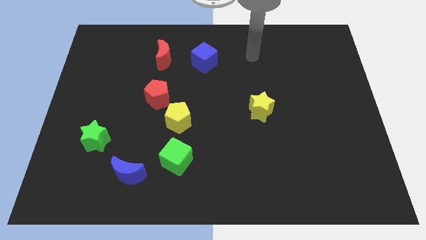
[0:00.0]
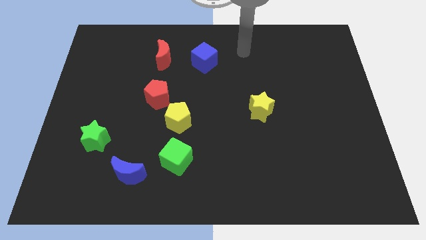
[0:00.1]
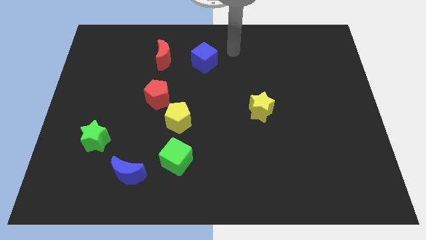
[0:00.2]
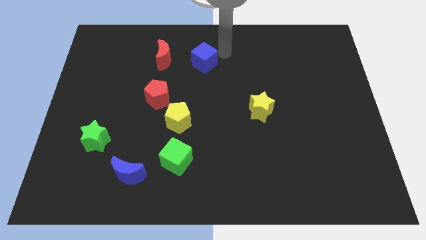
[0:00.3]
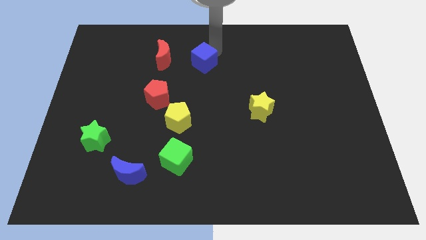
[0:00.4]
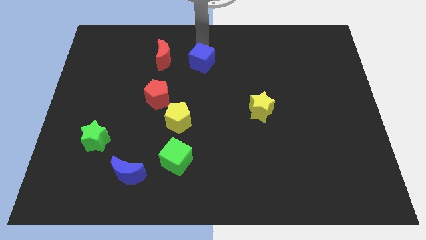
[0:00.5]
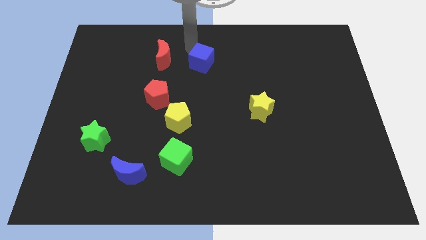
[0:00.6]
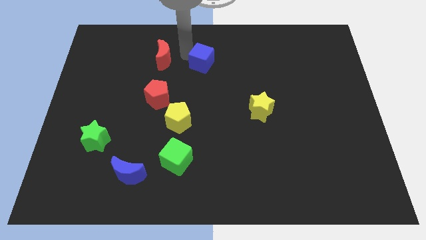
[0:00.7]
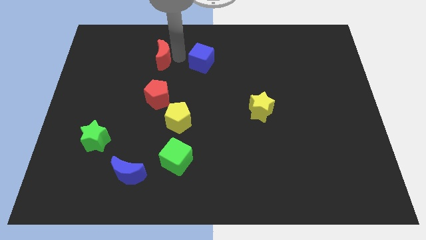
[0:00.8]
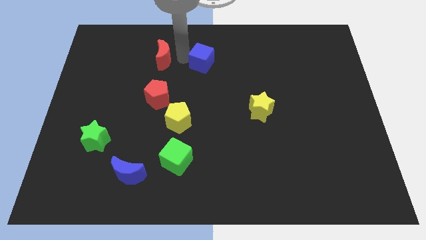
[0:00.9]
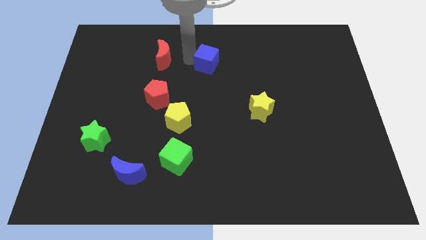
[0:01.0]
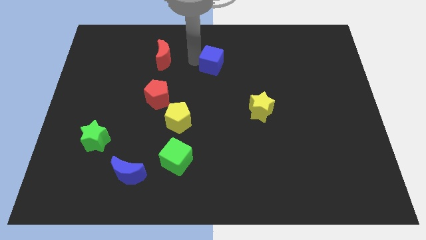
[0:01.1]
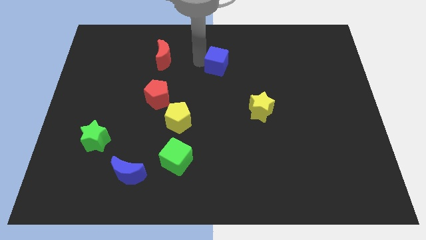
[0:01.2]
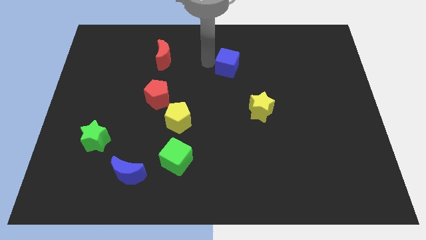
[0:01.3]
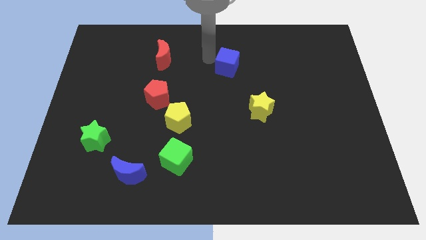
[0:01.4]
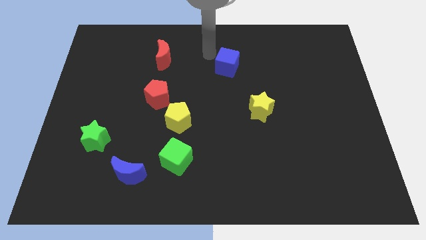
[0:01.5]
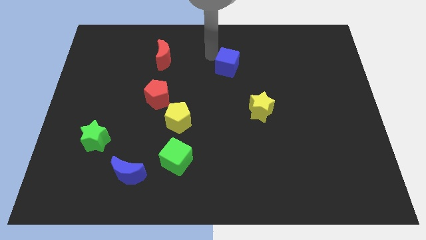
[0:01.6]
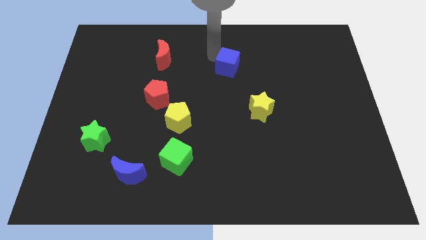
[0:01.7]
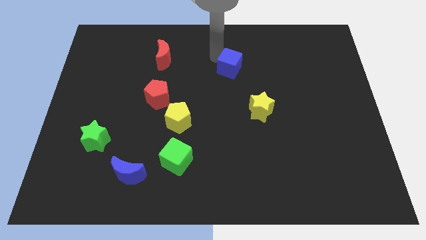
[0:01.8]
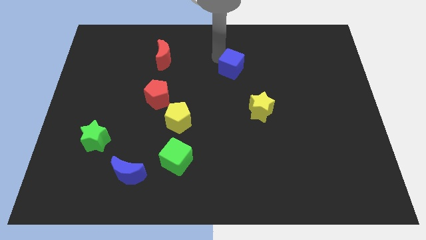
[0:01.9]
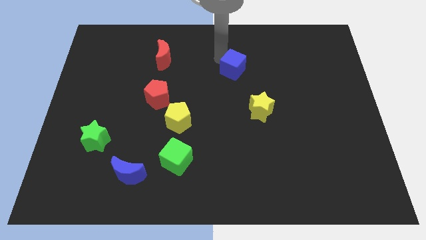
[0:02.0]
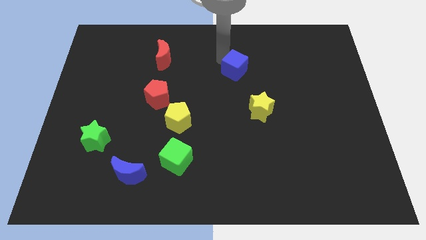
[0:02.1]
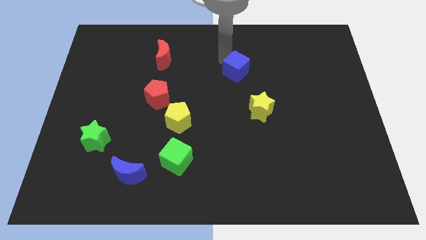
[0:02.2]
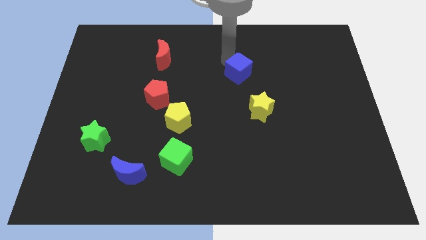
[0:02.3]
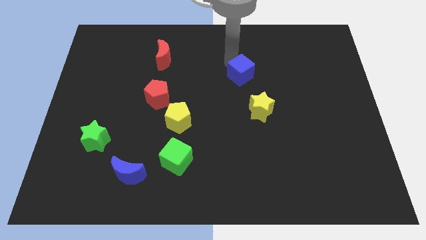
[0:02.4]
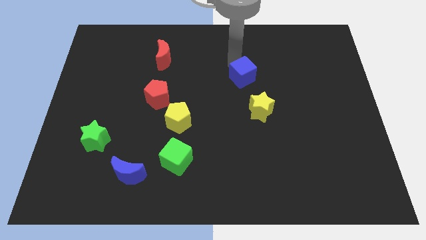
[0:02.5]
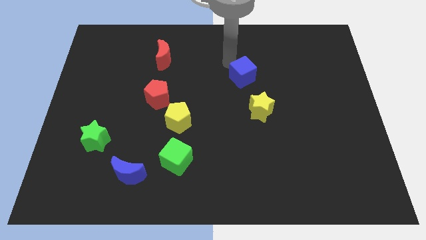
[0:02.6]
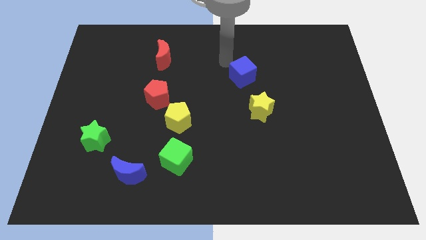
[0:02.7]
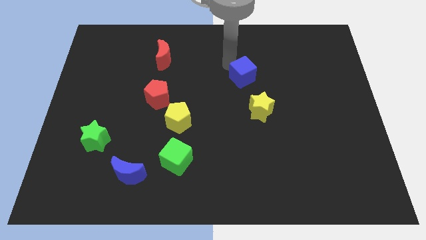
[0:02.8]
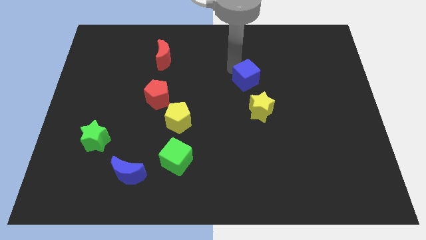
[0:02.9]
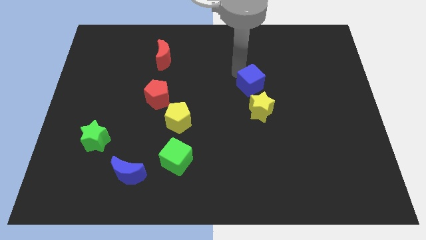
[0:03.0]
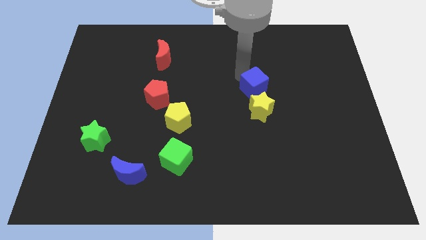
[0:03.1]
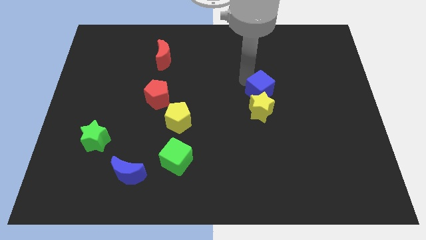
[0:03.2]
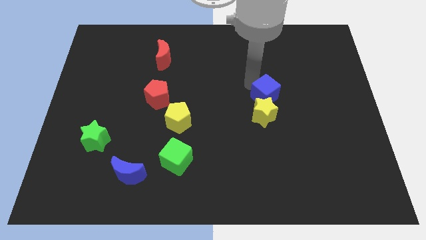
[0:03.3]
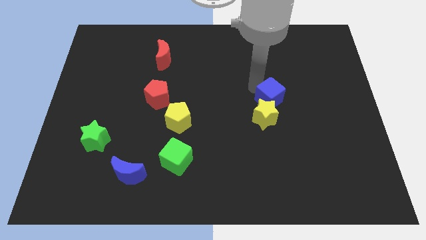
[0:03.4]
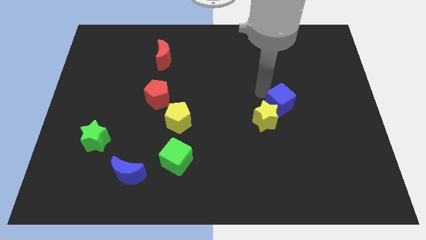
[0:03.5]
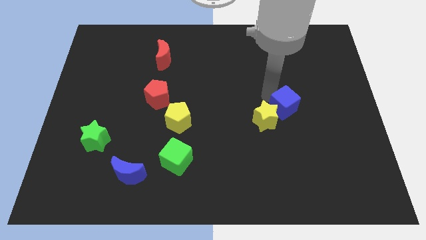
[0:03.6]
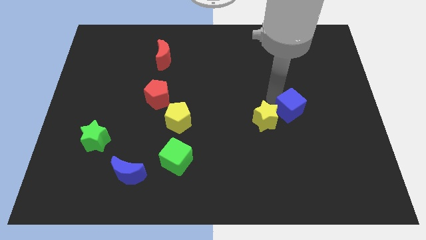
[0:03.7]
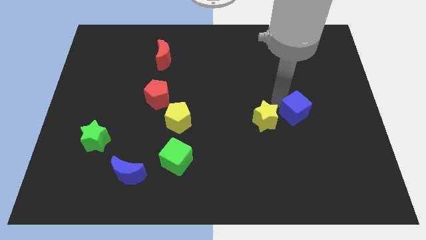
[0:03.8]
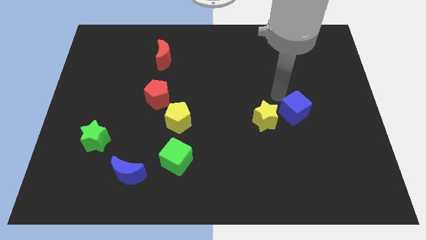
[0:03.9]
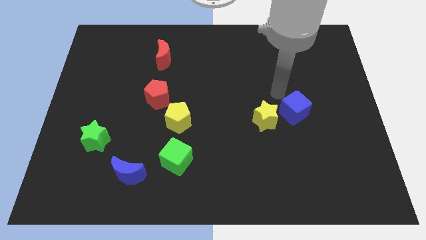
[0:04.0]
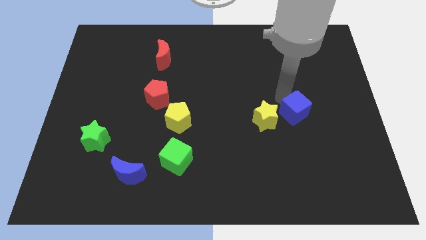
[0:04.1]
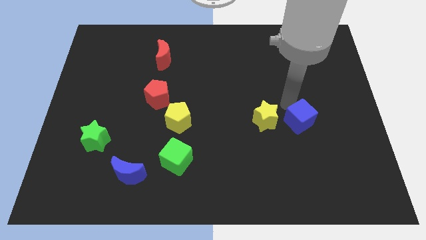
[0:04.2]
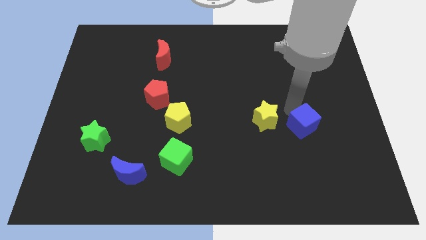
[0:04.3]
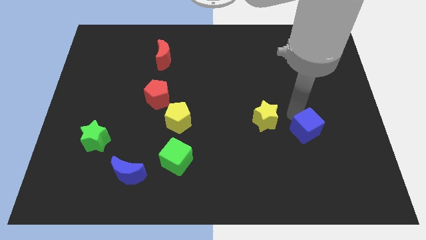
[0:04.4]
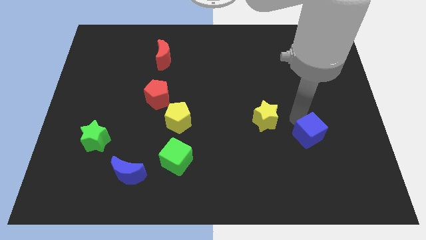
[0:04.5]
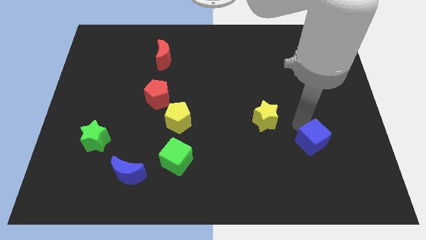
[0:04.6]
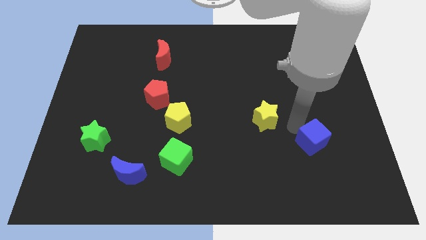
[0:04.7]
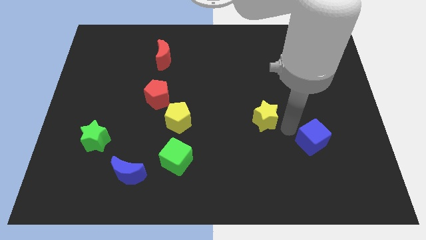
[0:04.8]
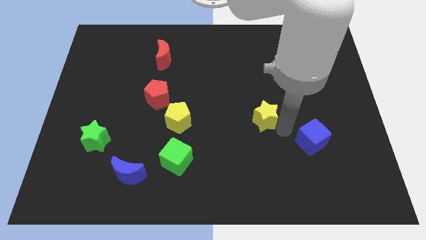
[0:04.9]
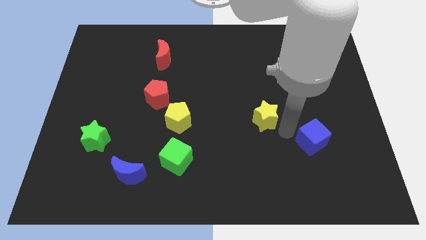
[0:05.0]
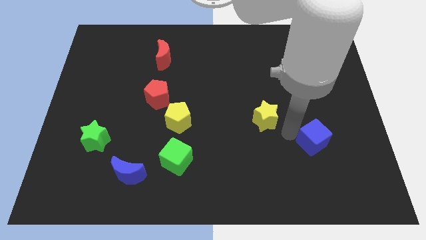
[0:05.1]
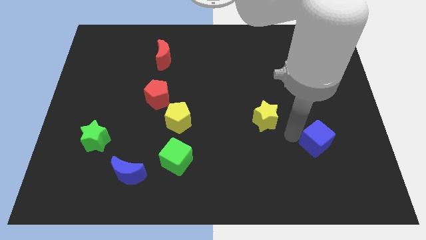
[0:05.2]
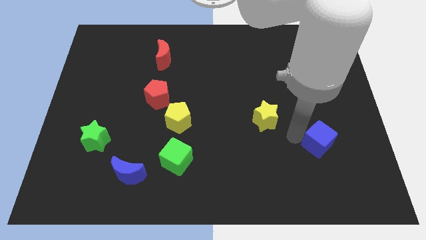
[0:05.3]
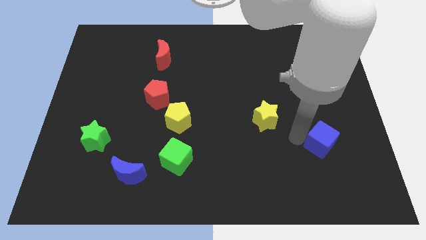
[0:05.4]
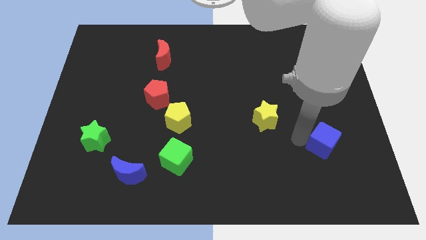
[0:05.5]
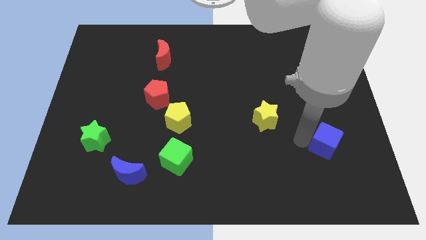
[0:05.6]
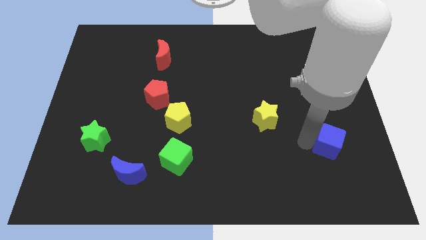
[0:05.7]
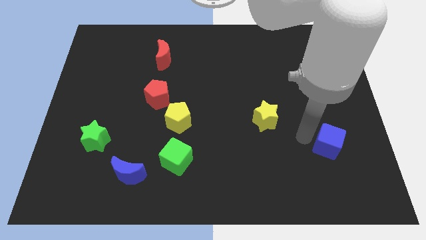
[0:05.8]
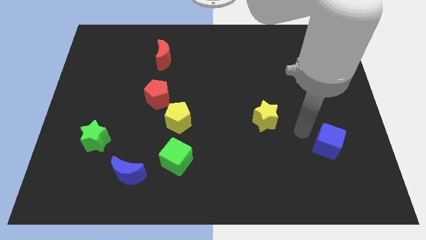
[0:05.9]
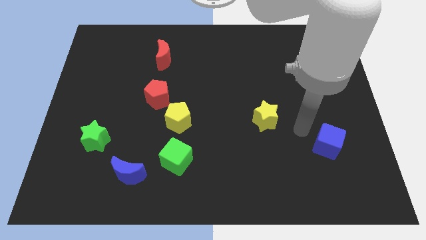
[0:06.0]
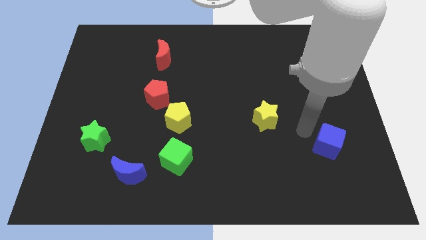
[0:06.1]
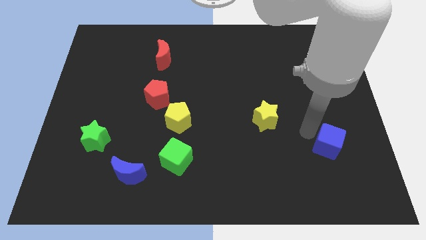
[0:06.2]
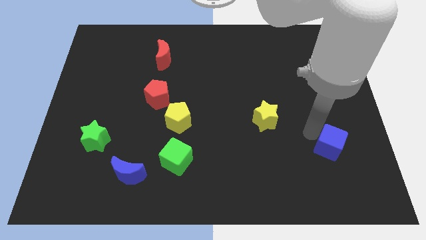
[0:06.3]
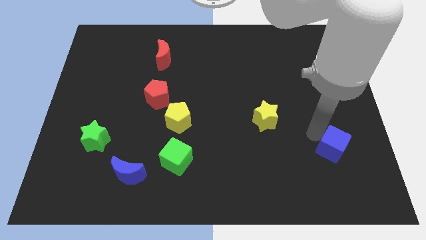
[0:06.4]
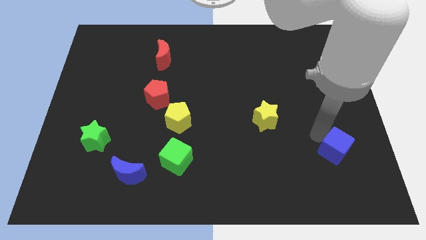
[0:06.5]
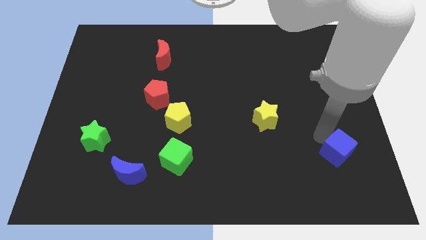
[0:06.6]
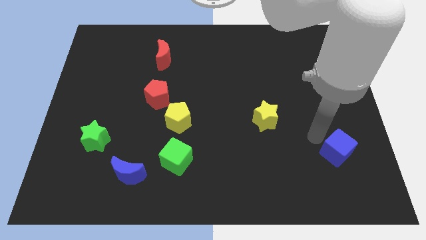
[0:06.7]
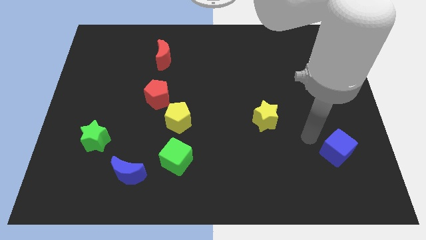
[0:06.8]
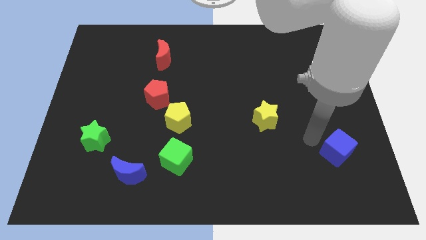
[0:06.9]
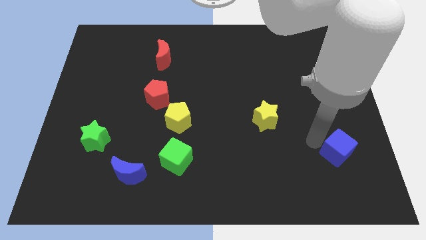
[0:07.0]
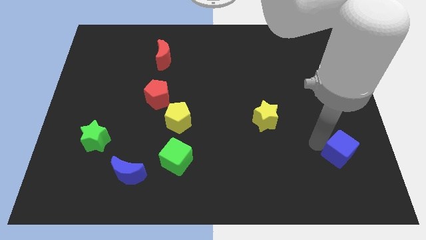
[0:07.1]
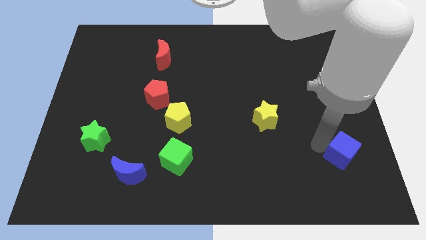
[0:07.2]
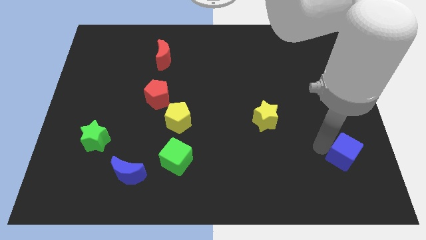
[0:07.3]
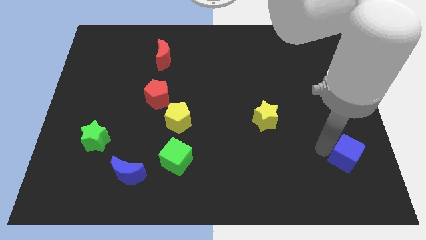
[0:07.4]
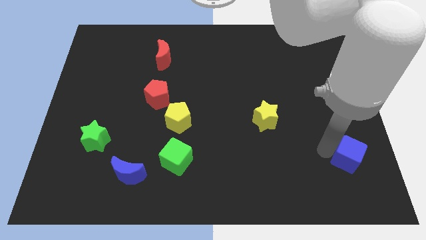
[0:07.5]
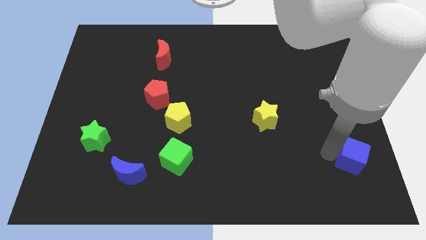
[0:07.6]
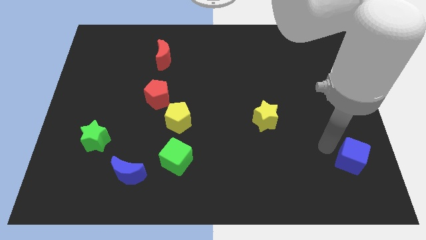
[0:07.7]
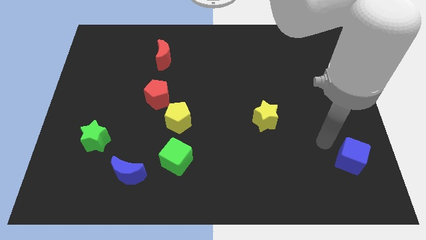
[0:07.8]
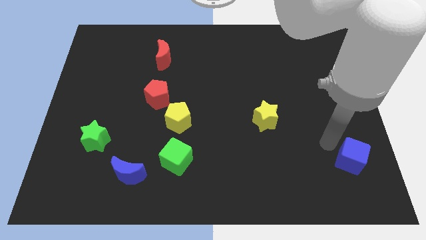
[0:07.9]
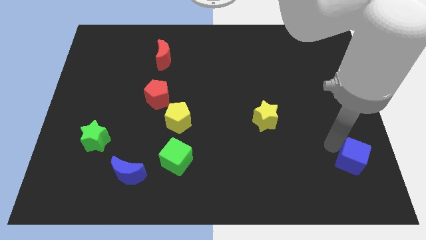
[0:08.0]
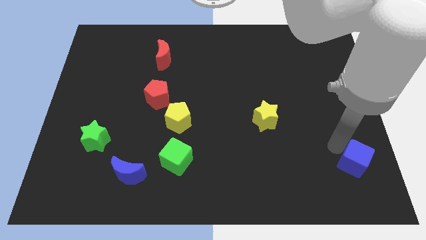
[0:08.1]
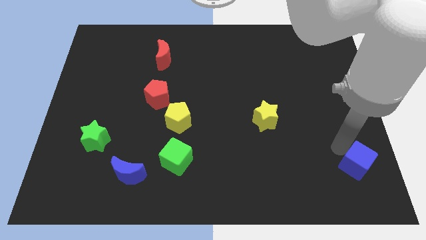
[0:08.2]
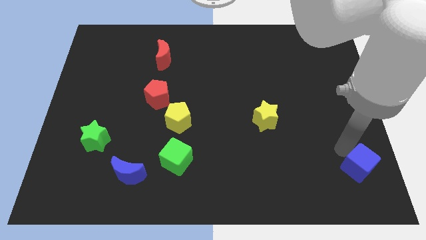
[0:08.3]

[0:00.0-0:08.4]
put the blue cube to the bottom right
